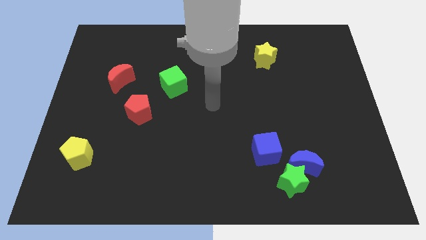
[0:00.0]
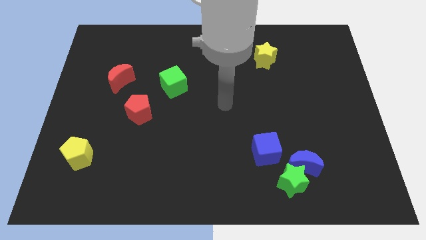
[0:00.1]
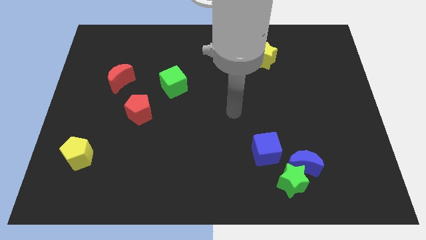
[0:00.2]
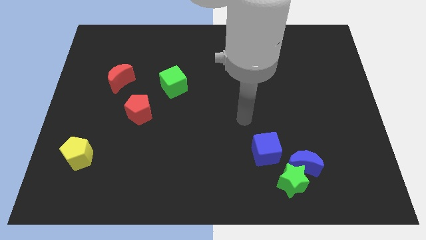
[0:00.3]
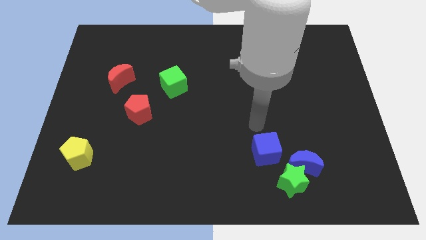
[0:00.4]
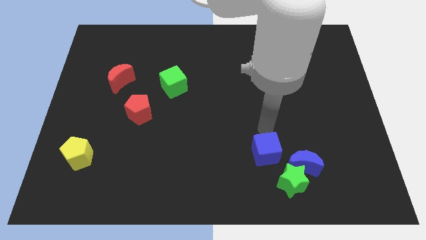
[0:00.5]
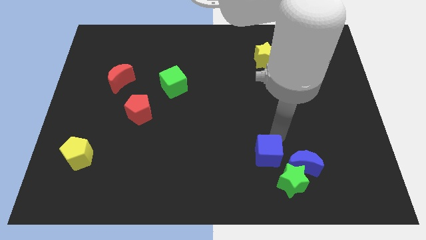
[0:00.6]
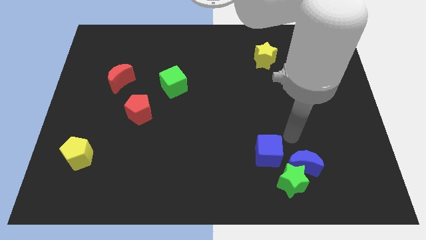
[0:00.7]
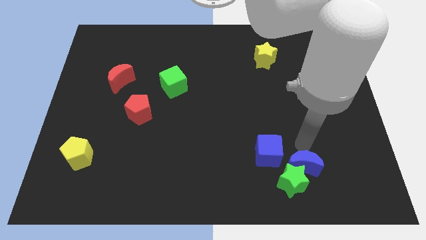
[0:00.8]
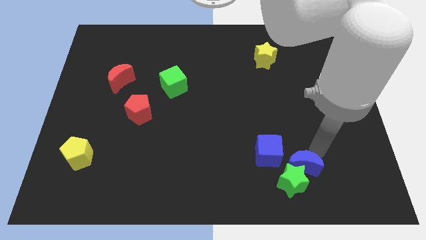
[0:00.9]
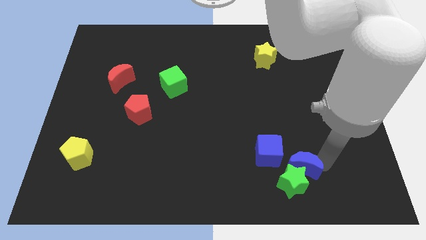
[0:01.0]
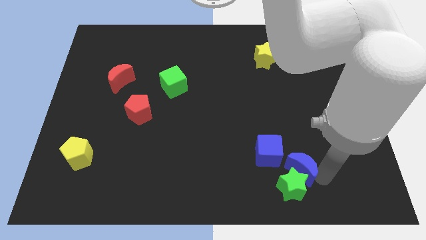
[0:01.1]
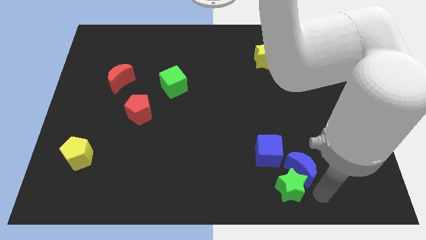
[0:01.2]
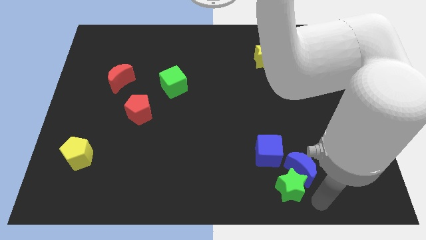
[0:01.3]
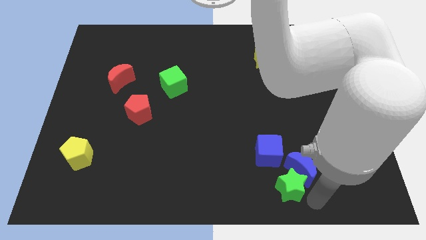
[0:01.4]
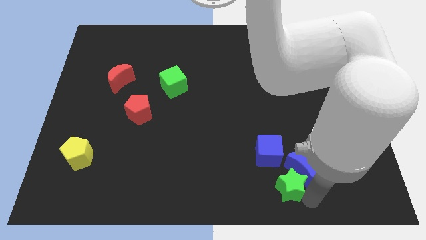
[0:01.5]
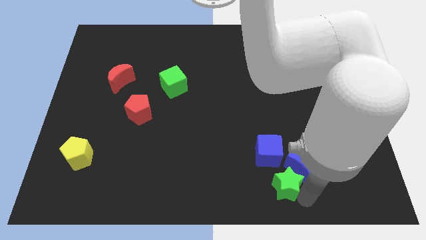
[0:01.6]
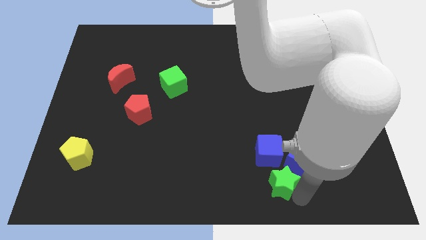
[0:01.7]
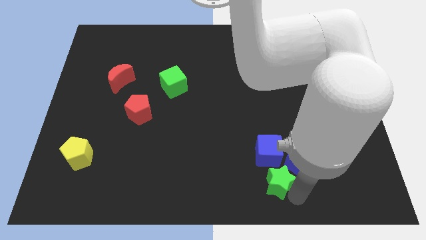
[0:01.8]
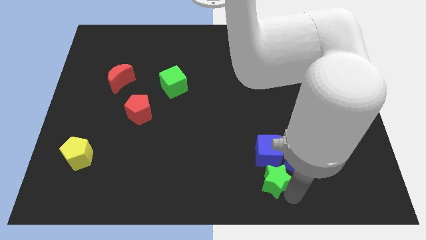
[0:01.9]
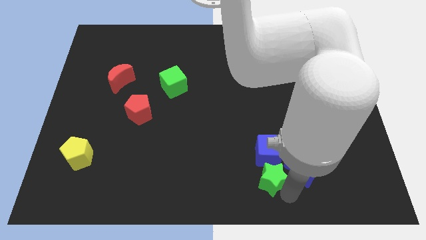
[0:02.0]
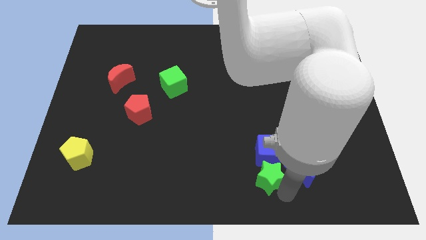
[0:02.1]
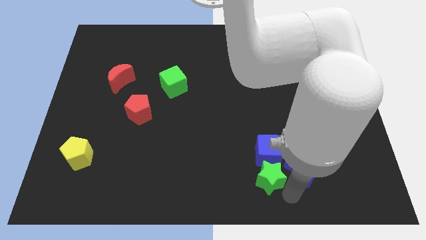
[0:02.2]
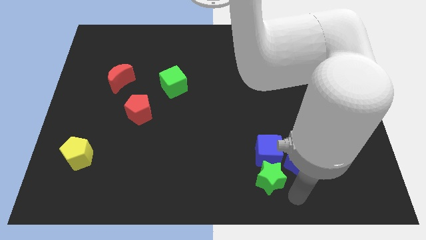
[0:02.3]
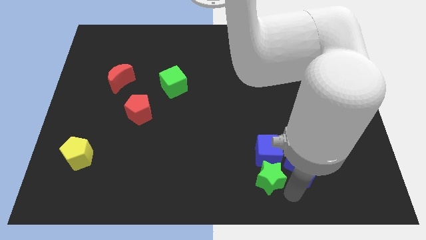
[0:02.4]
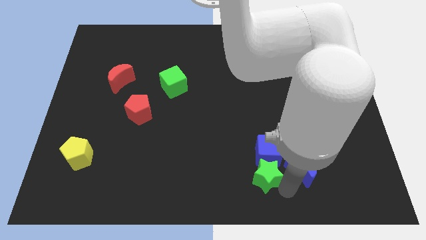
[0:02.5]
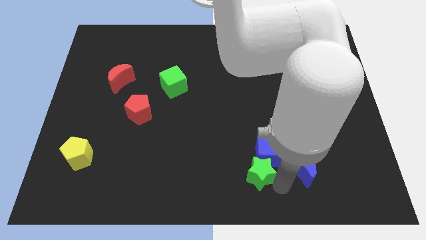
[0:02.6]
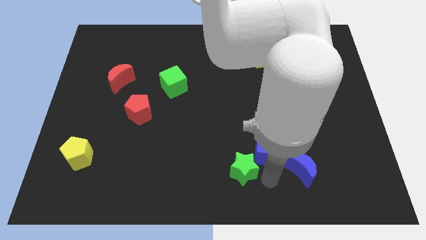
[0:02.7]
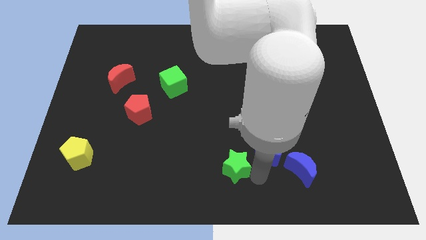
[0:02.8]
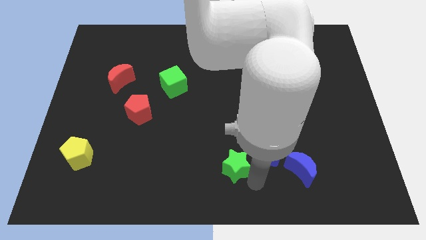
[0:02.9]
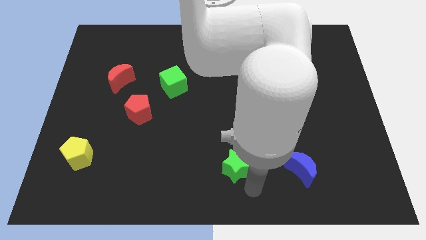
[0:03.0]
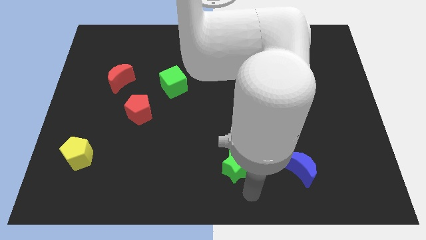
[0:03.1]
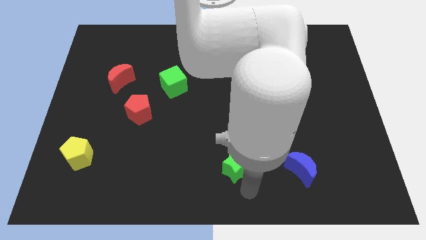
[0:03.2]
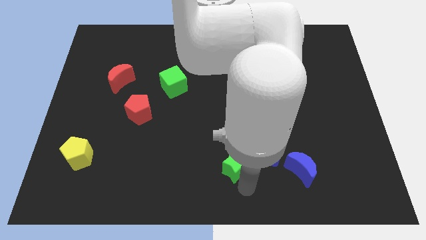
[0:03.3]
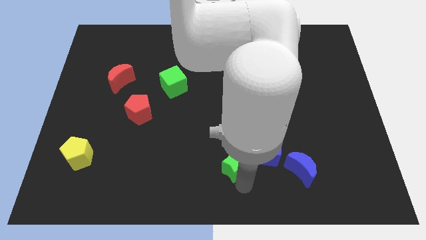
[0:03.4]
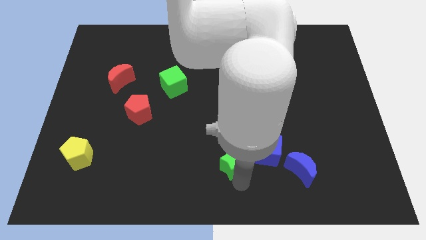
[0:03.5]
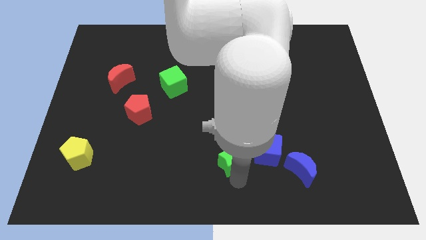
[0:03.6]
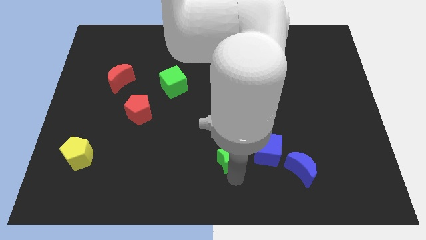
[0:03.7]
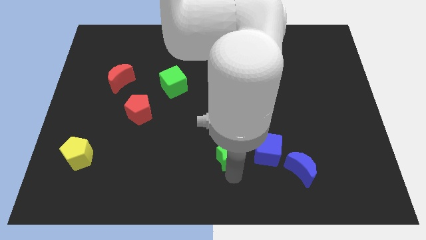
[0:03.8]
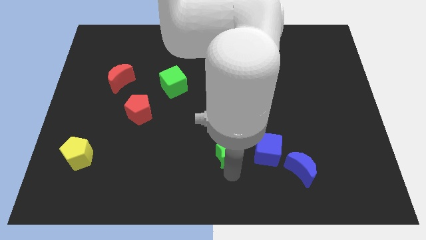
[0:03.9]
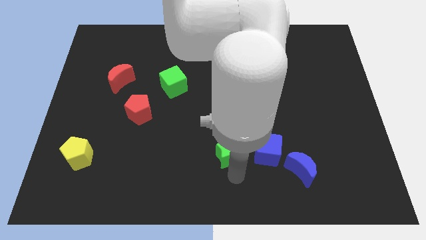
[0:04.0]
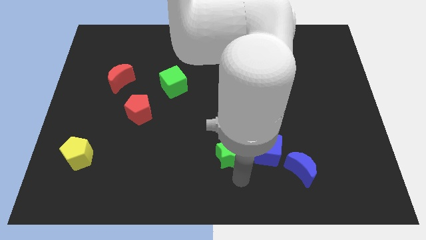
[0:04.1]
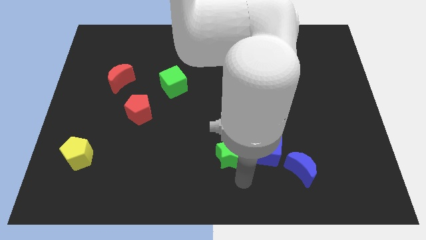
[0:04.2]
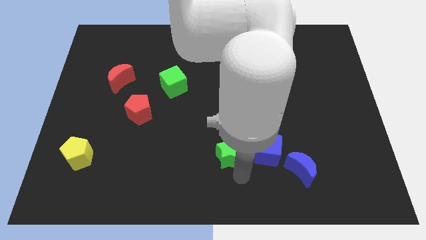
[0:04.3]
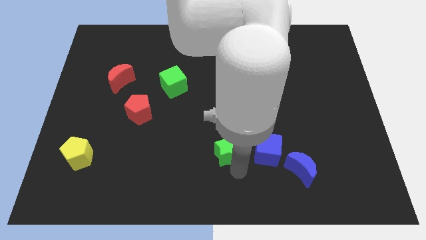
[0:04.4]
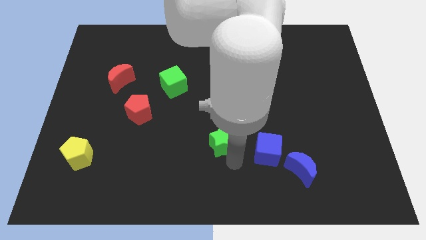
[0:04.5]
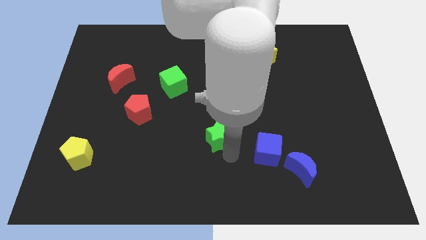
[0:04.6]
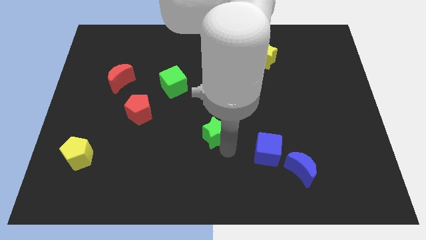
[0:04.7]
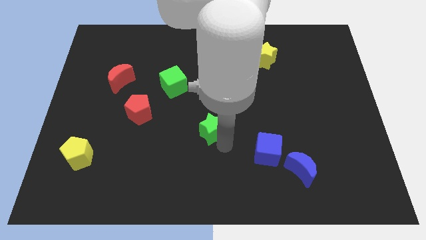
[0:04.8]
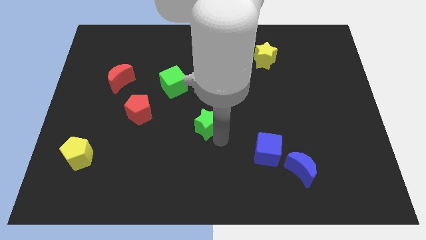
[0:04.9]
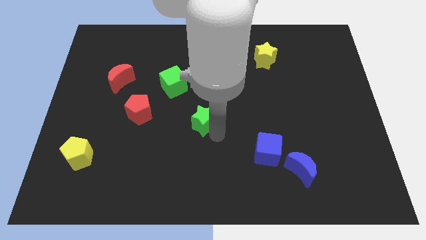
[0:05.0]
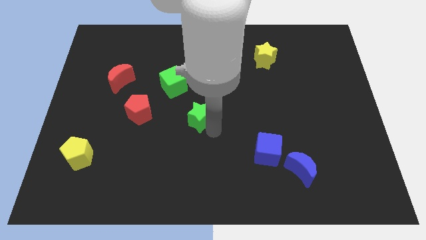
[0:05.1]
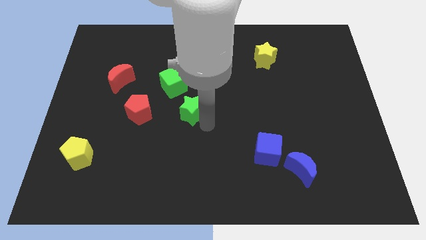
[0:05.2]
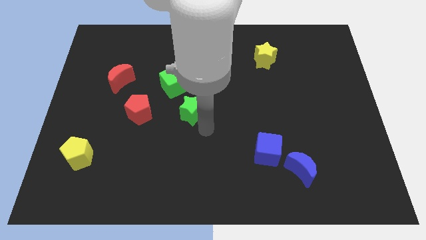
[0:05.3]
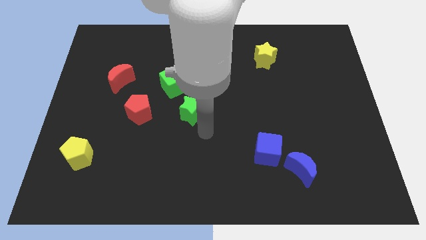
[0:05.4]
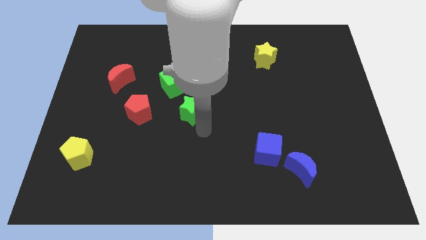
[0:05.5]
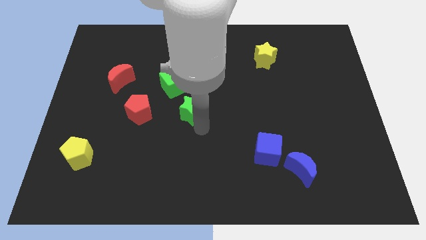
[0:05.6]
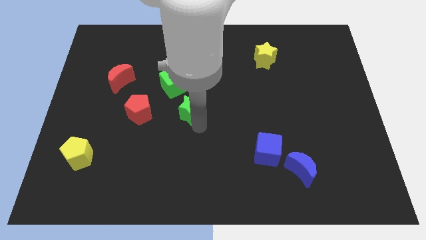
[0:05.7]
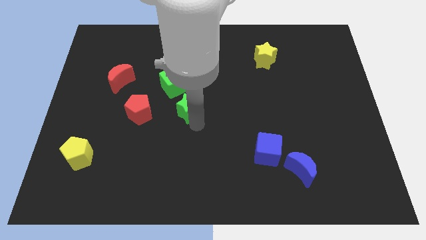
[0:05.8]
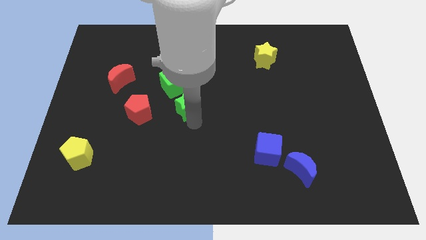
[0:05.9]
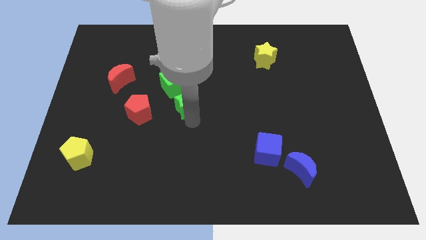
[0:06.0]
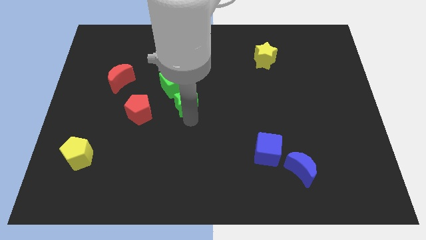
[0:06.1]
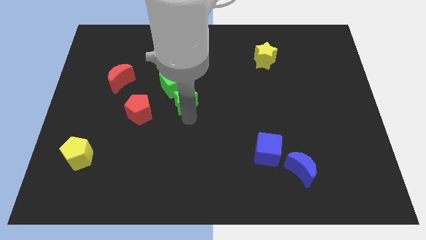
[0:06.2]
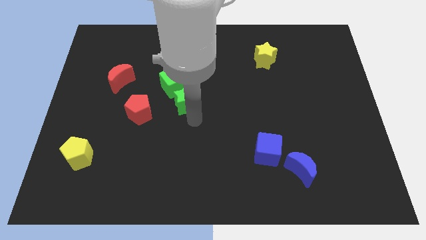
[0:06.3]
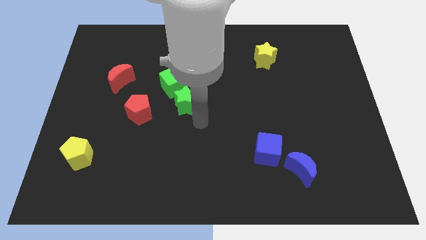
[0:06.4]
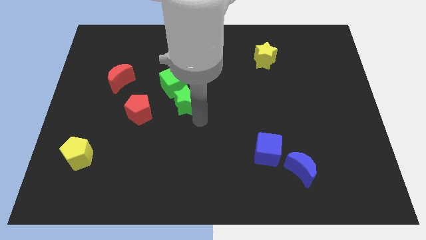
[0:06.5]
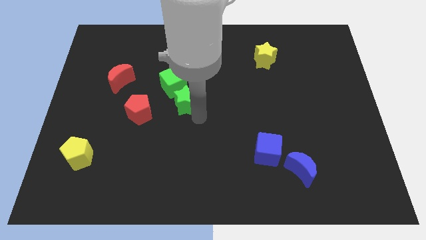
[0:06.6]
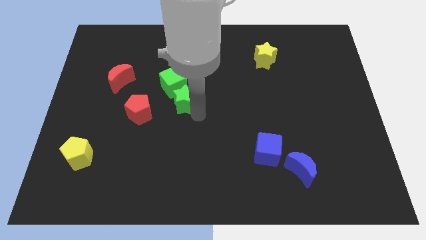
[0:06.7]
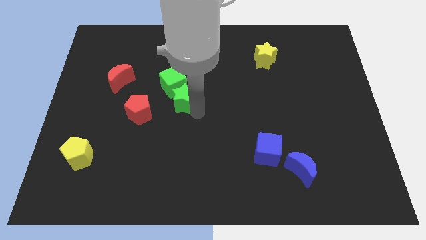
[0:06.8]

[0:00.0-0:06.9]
slide the green star close to the green cube

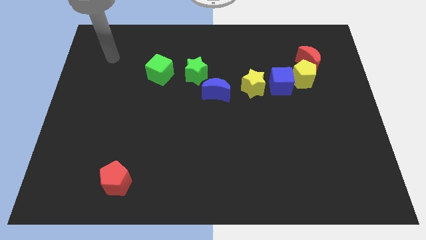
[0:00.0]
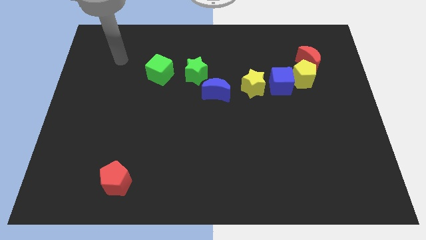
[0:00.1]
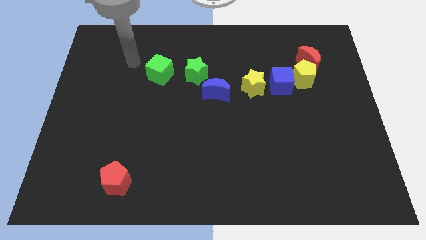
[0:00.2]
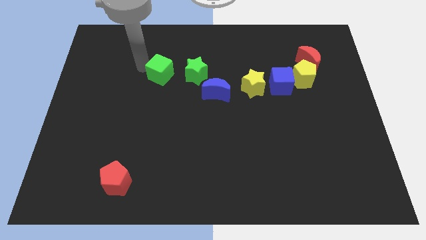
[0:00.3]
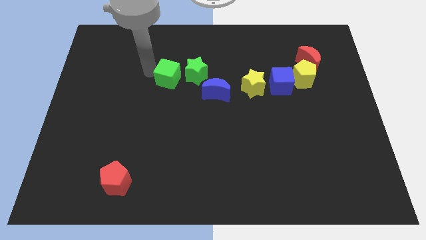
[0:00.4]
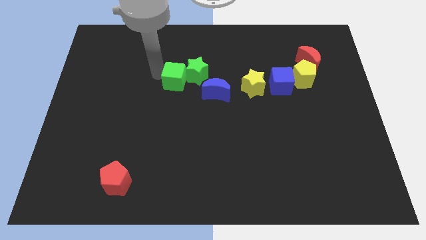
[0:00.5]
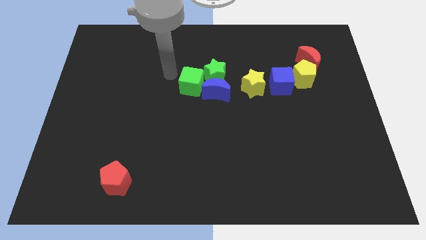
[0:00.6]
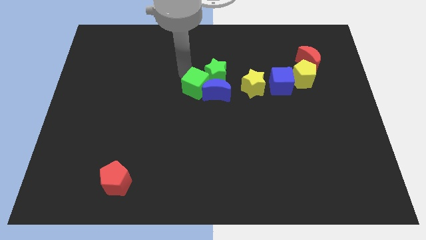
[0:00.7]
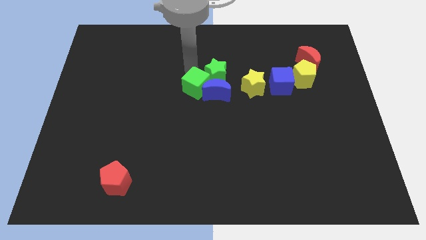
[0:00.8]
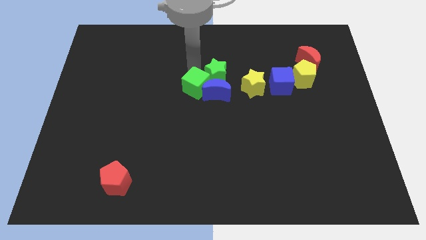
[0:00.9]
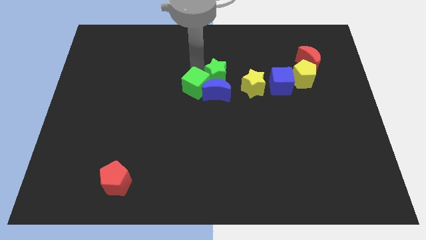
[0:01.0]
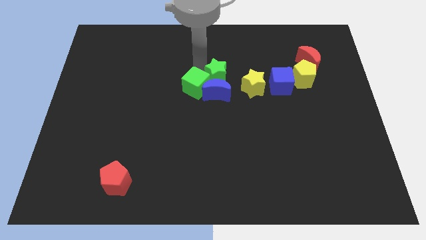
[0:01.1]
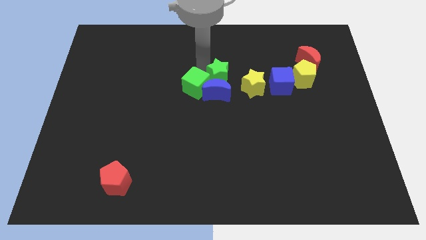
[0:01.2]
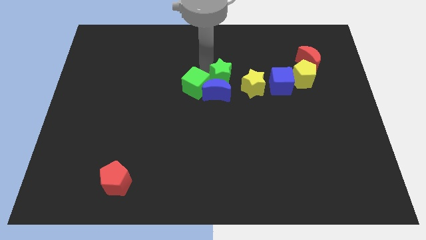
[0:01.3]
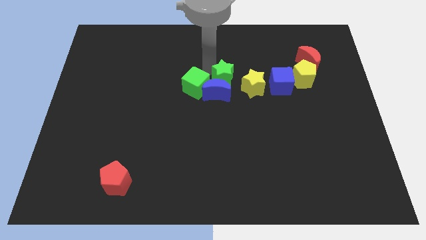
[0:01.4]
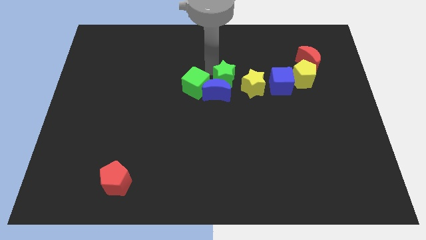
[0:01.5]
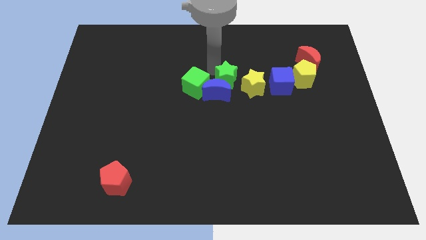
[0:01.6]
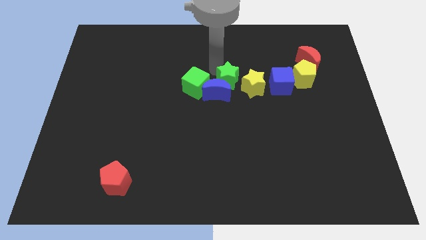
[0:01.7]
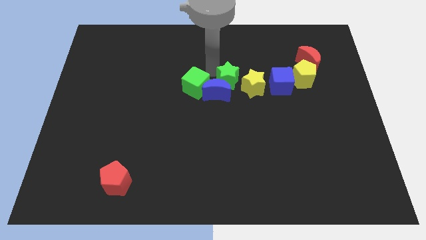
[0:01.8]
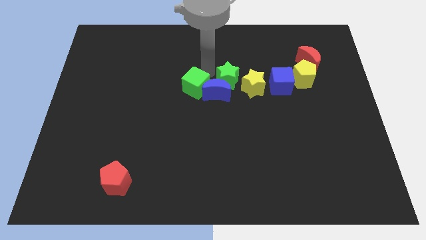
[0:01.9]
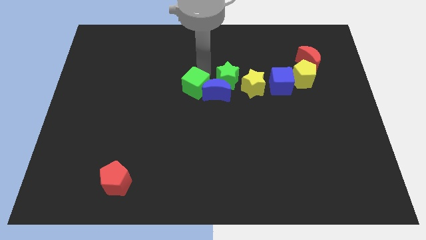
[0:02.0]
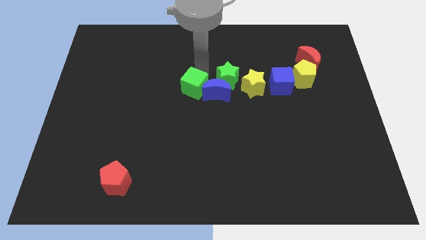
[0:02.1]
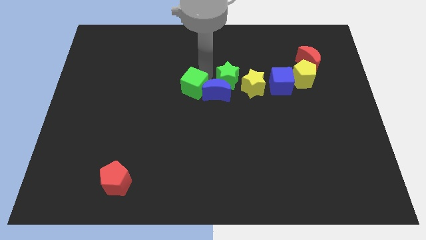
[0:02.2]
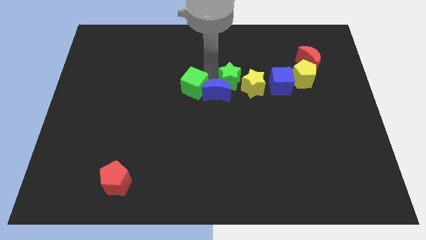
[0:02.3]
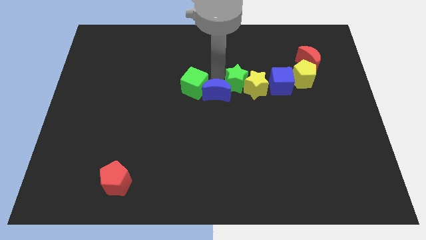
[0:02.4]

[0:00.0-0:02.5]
slide the green star next to the yellow star
